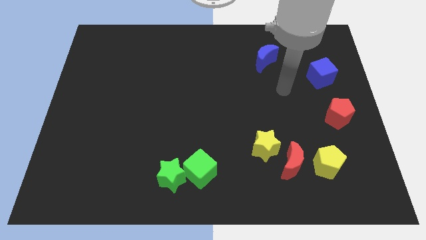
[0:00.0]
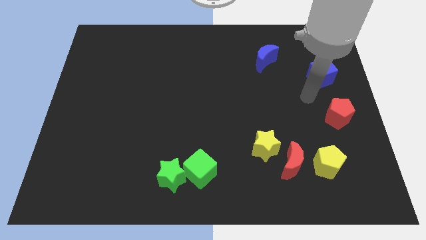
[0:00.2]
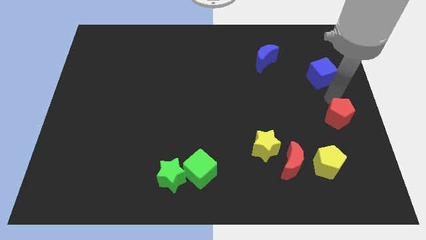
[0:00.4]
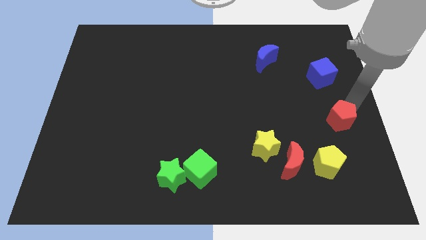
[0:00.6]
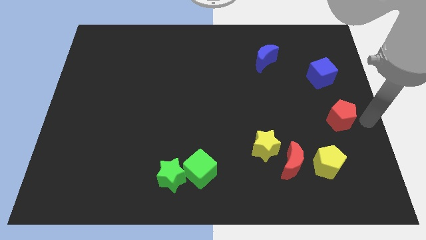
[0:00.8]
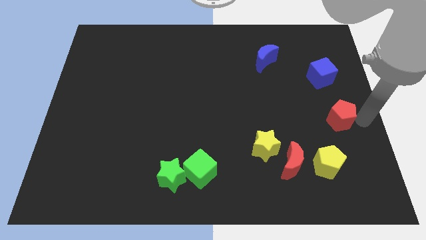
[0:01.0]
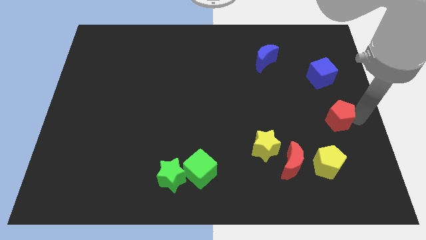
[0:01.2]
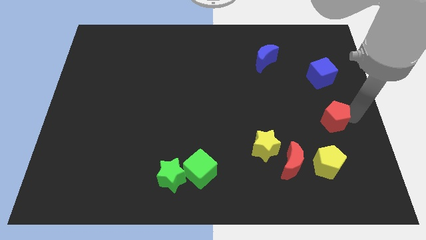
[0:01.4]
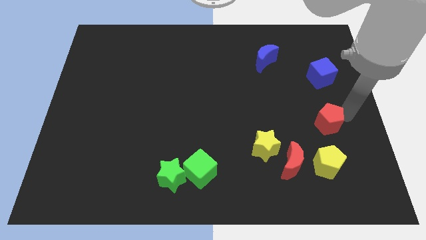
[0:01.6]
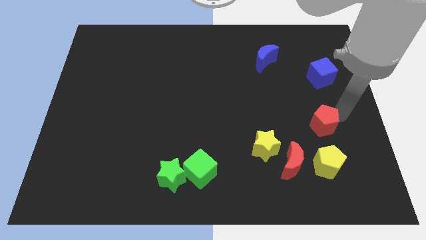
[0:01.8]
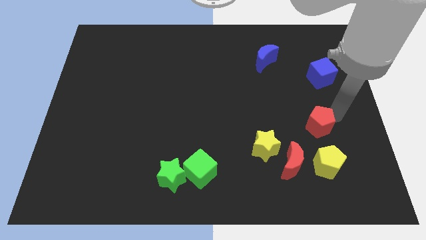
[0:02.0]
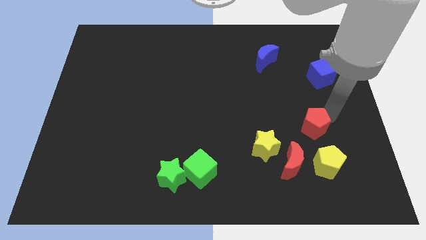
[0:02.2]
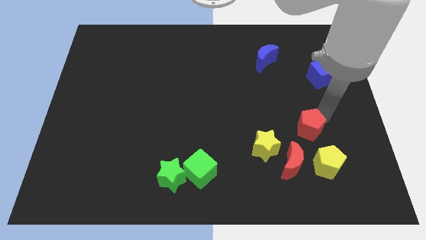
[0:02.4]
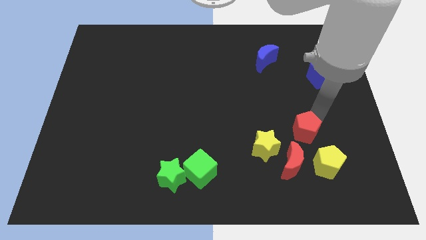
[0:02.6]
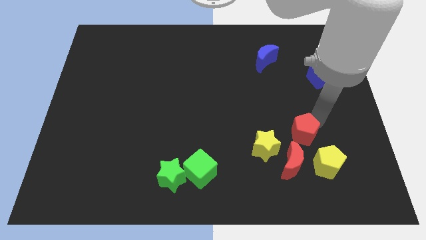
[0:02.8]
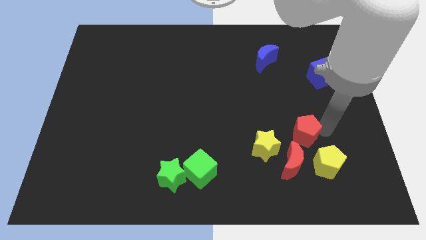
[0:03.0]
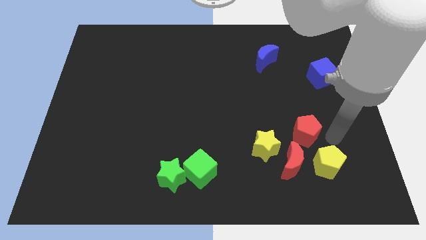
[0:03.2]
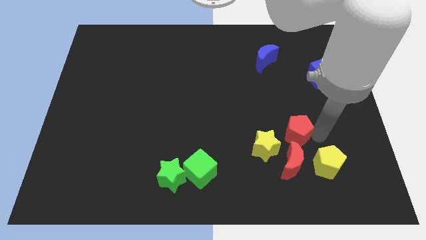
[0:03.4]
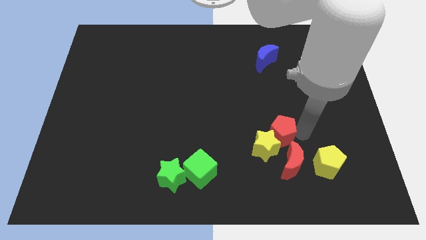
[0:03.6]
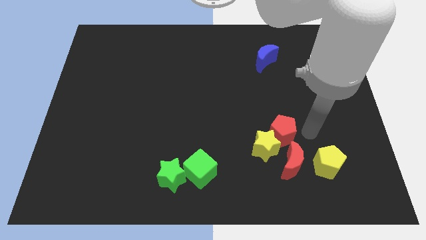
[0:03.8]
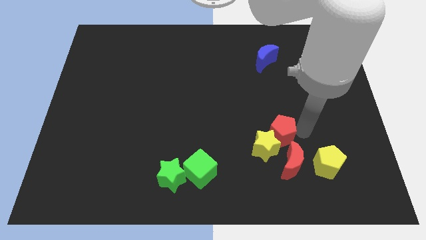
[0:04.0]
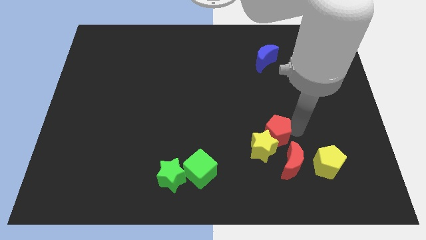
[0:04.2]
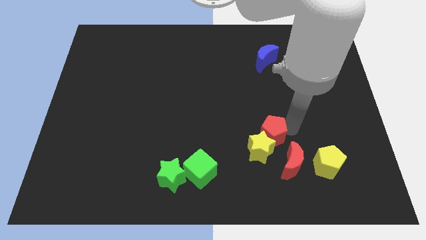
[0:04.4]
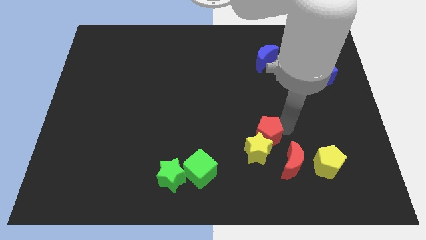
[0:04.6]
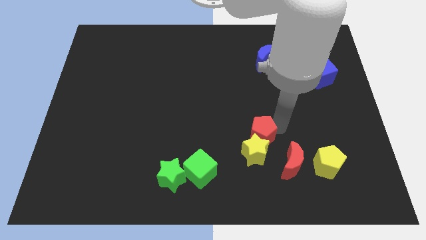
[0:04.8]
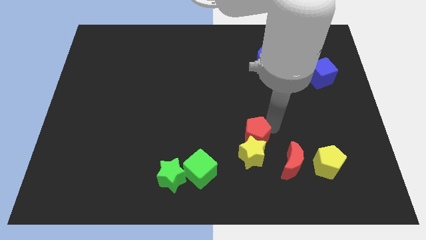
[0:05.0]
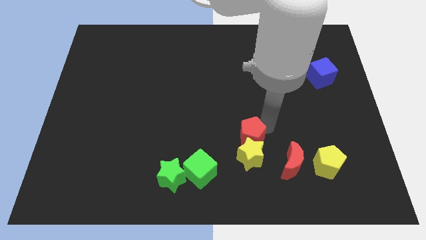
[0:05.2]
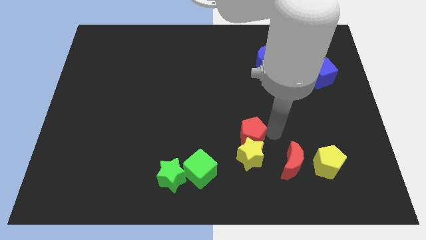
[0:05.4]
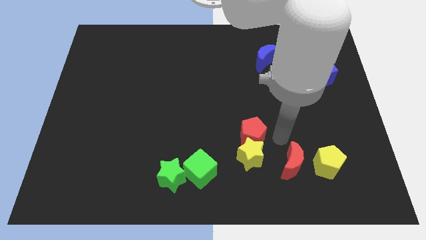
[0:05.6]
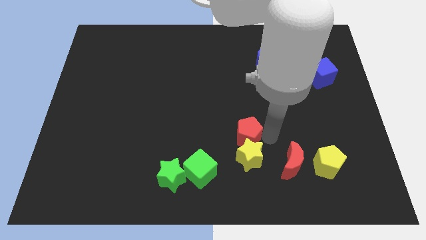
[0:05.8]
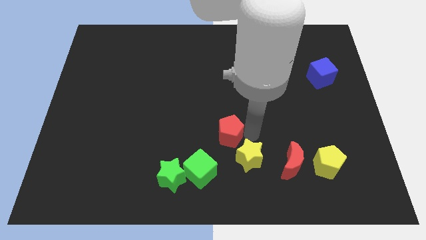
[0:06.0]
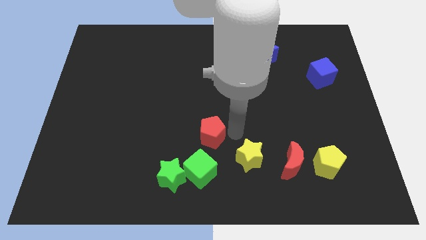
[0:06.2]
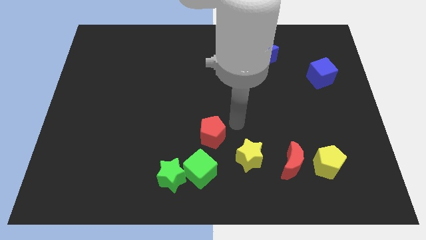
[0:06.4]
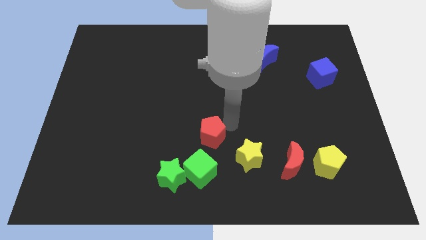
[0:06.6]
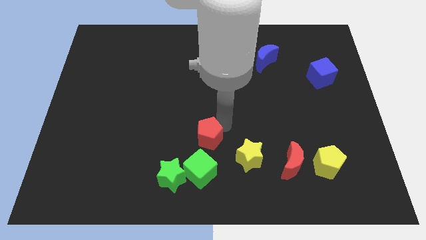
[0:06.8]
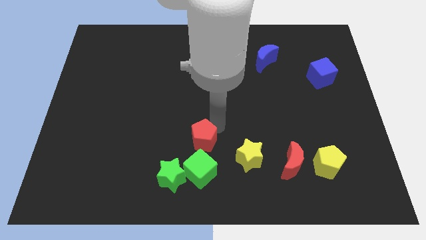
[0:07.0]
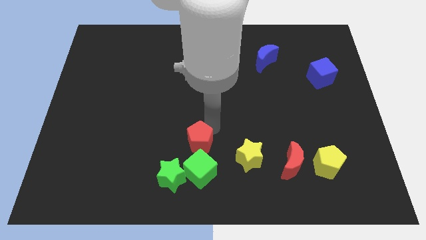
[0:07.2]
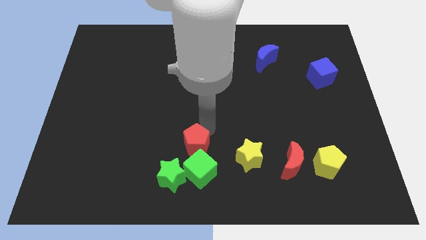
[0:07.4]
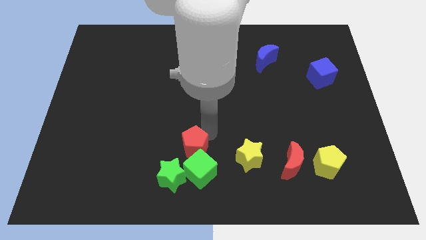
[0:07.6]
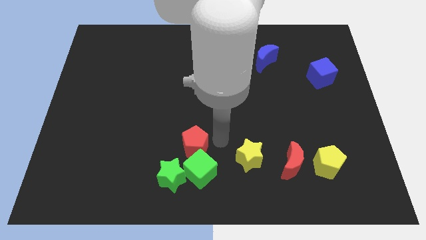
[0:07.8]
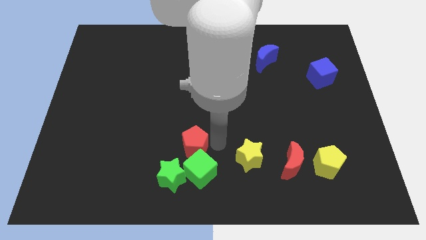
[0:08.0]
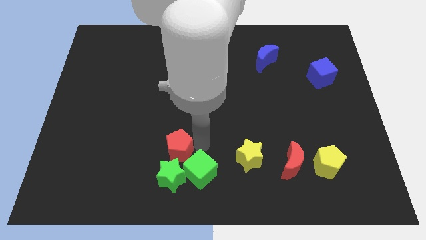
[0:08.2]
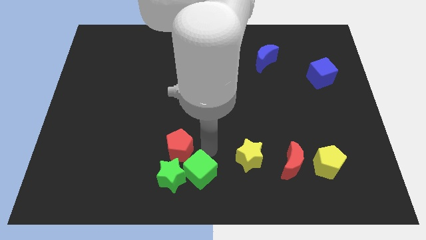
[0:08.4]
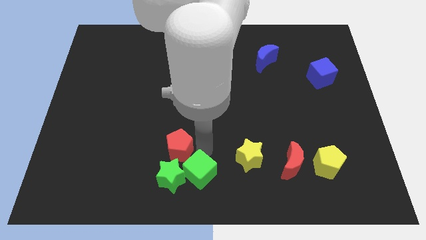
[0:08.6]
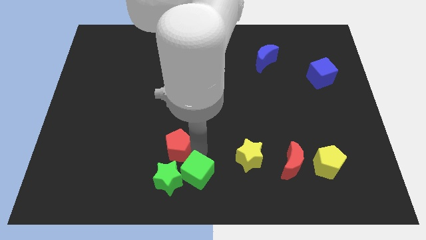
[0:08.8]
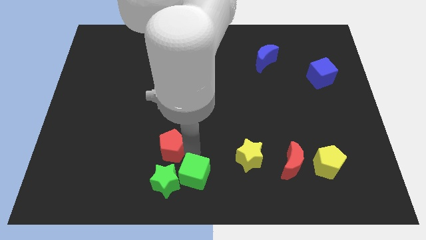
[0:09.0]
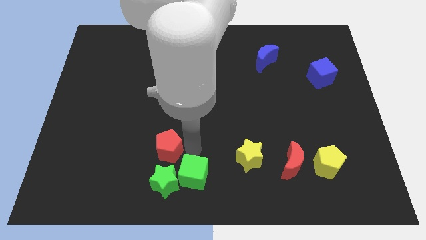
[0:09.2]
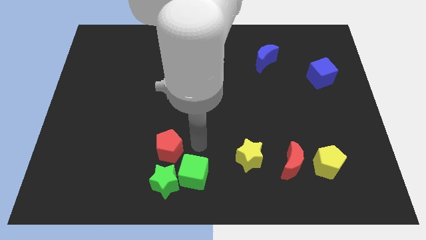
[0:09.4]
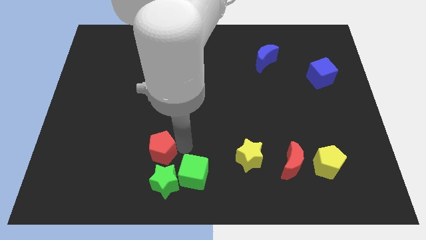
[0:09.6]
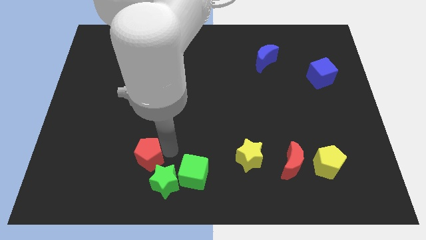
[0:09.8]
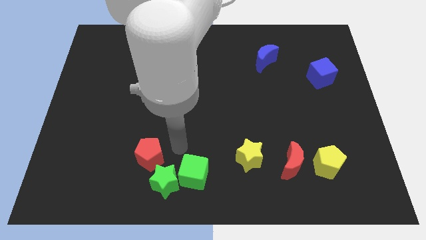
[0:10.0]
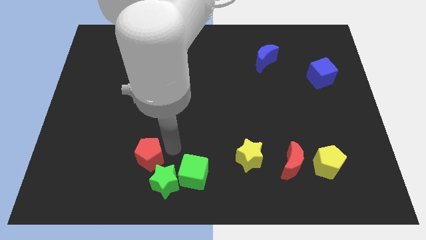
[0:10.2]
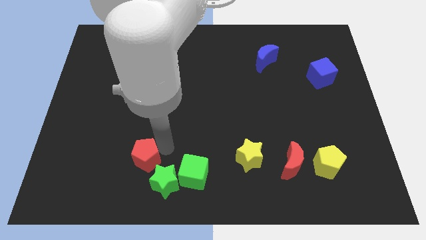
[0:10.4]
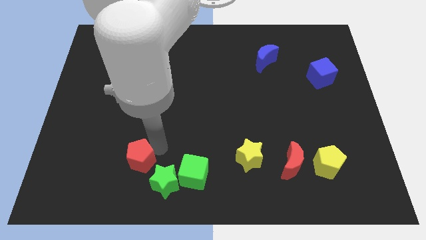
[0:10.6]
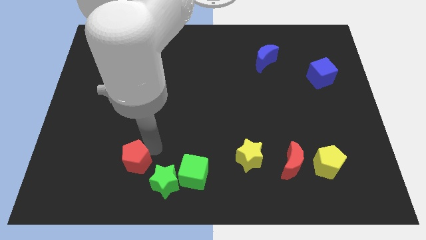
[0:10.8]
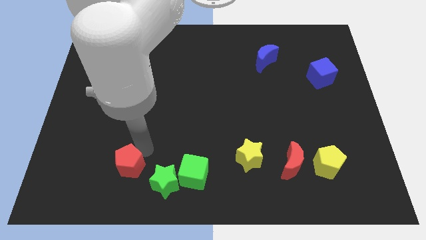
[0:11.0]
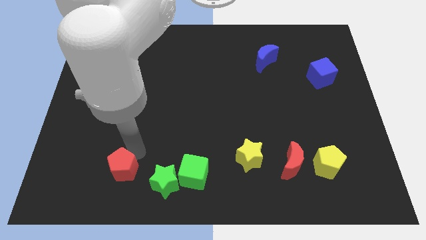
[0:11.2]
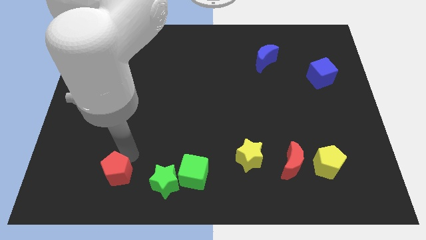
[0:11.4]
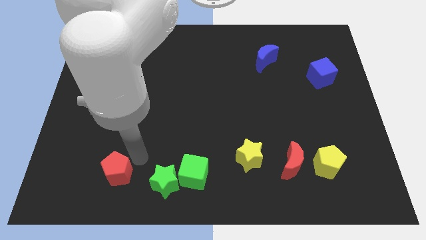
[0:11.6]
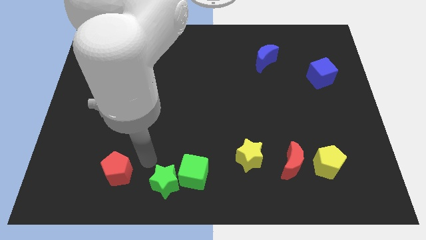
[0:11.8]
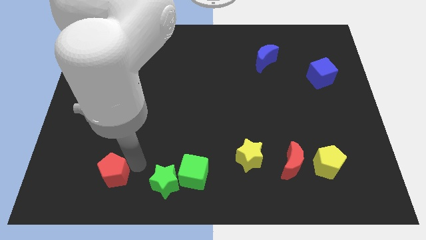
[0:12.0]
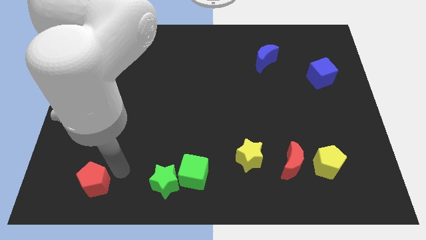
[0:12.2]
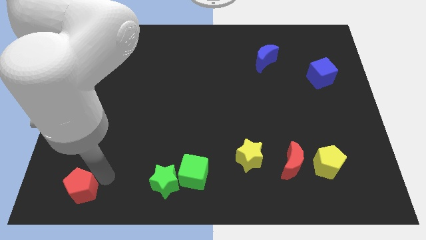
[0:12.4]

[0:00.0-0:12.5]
put the red pentagon to the bottom left
